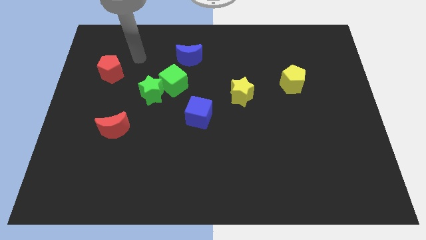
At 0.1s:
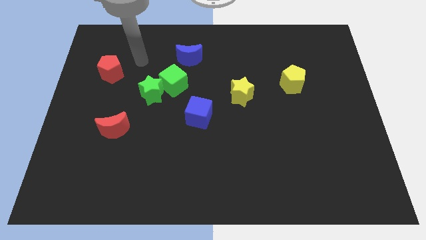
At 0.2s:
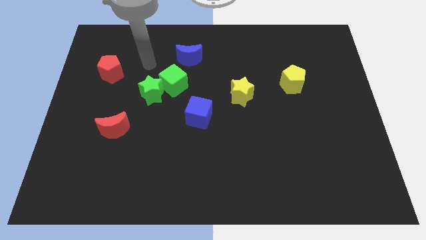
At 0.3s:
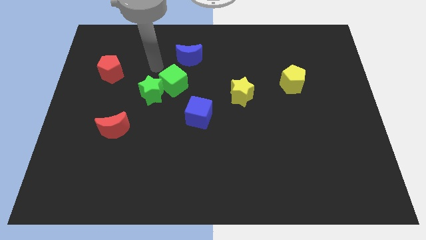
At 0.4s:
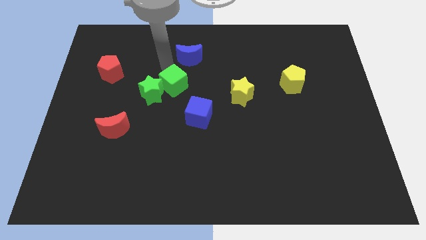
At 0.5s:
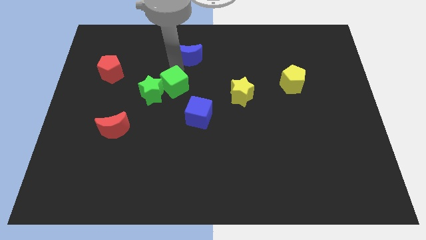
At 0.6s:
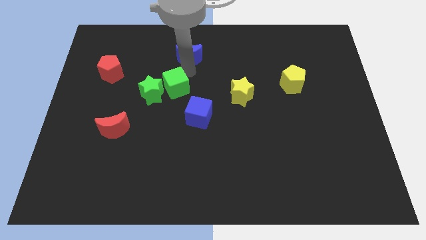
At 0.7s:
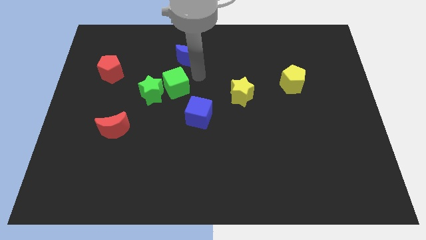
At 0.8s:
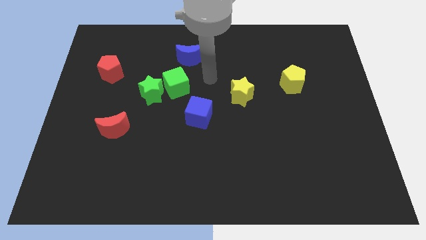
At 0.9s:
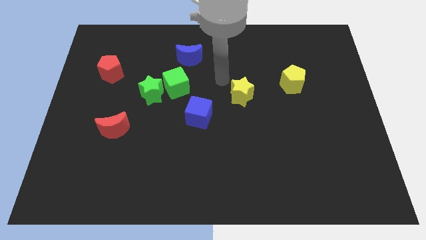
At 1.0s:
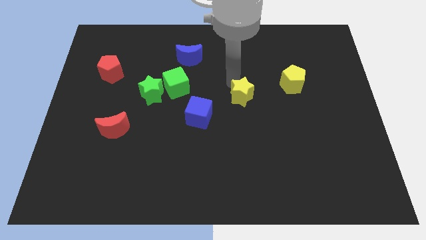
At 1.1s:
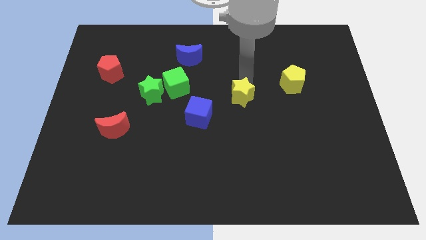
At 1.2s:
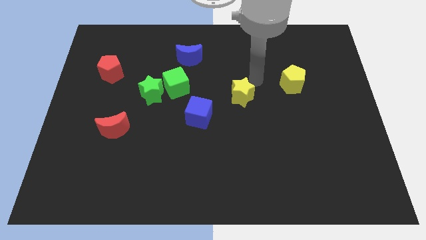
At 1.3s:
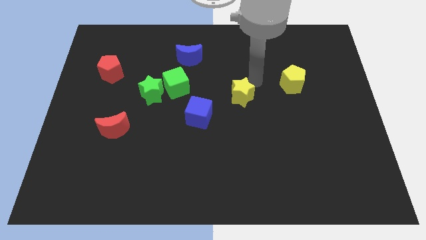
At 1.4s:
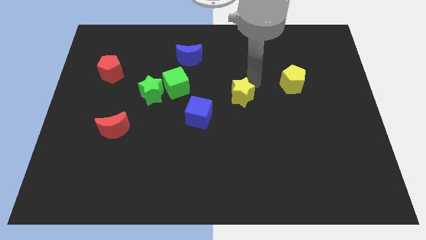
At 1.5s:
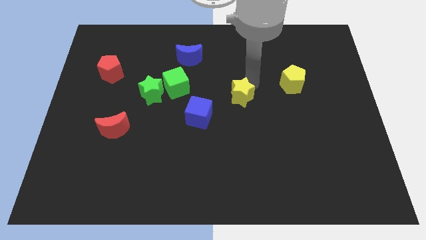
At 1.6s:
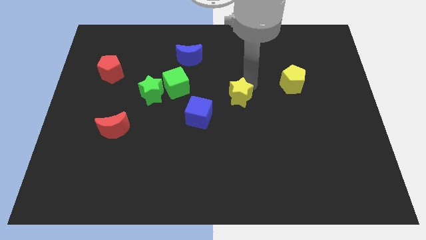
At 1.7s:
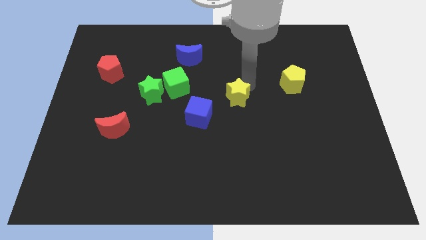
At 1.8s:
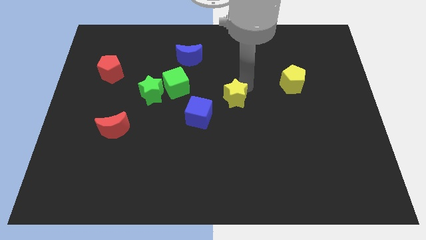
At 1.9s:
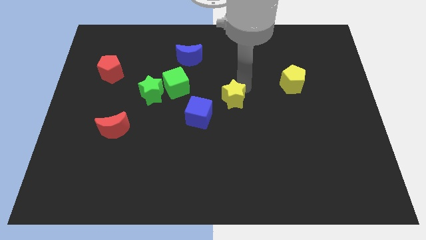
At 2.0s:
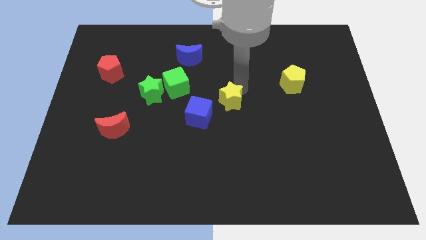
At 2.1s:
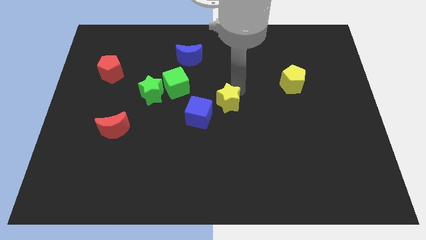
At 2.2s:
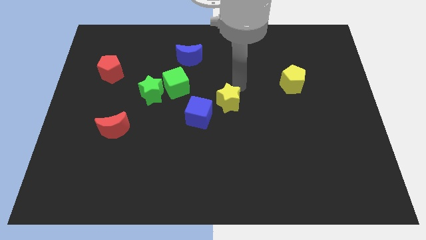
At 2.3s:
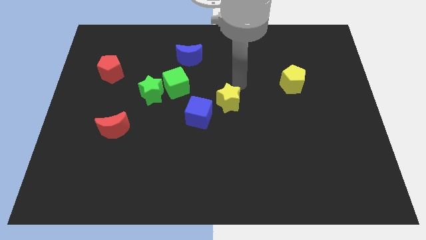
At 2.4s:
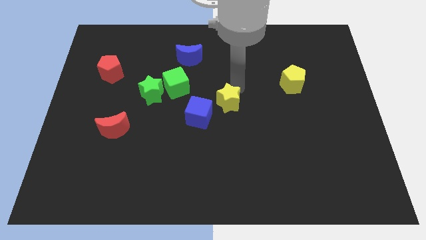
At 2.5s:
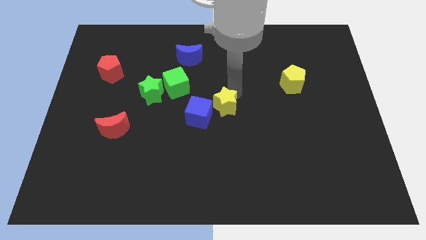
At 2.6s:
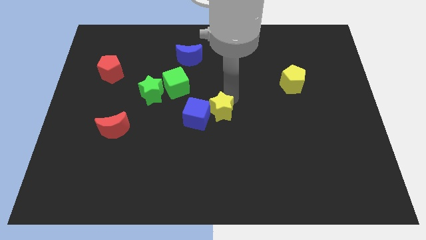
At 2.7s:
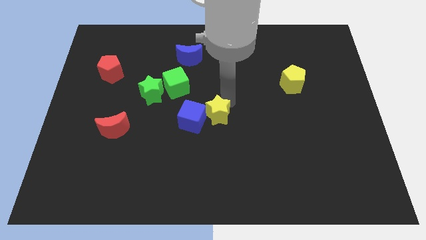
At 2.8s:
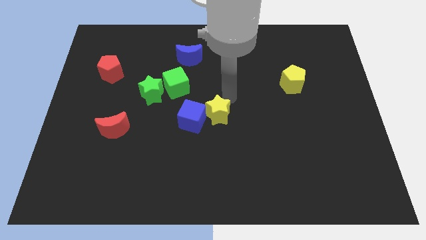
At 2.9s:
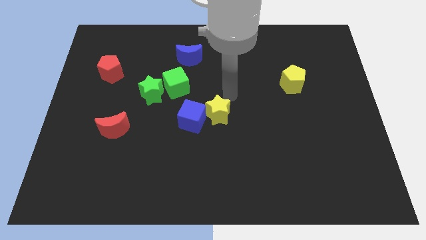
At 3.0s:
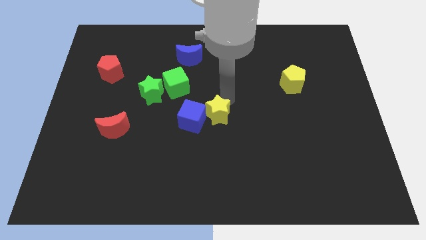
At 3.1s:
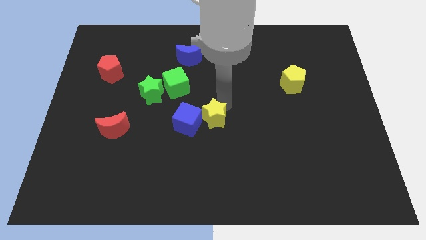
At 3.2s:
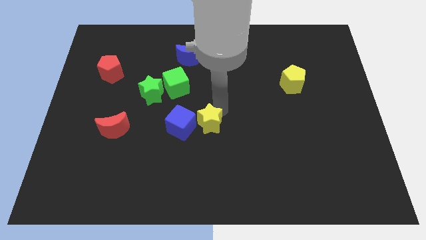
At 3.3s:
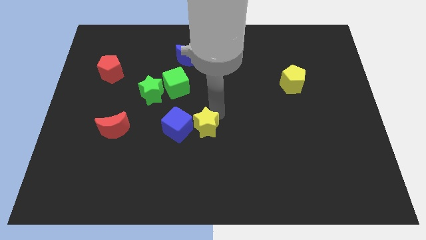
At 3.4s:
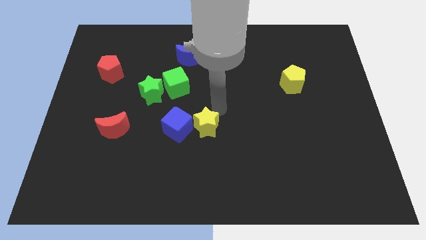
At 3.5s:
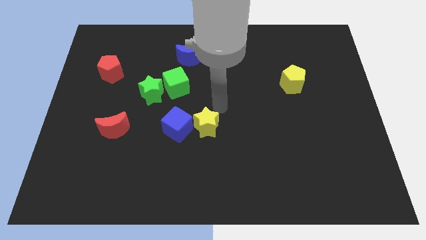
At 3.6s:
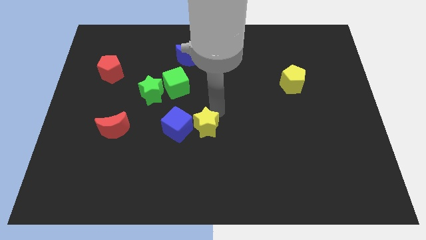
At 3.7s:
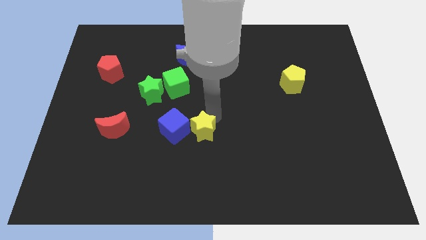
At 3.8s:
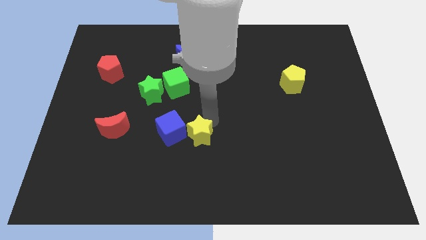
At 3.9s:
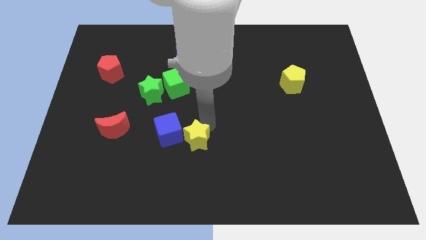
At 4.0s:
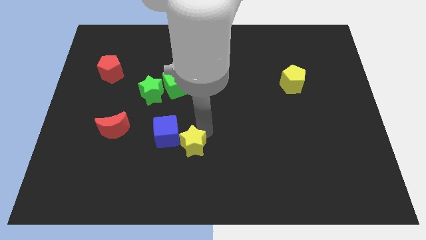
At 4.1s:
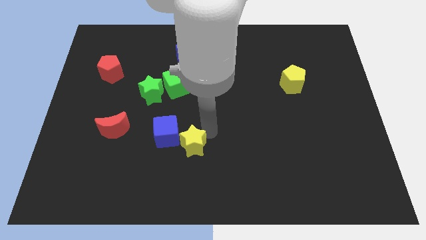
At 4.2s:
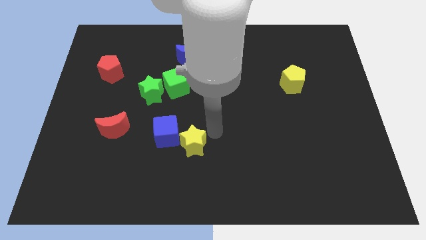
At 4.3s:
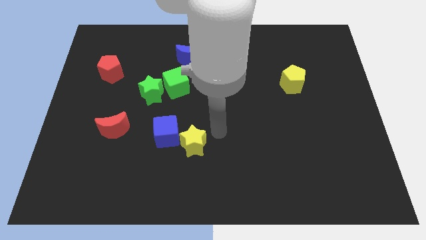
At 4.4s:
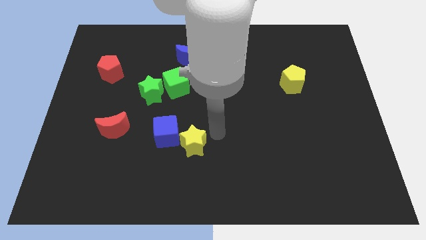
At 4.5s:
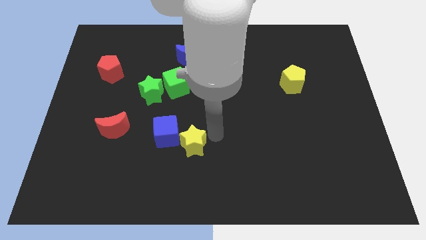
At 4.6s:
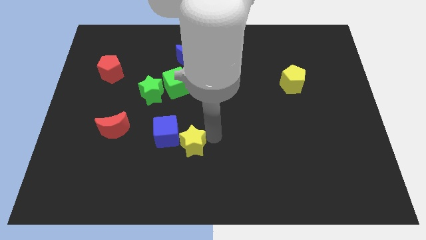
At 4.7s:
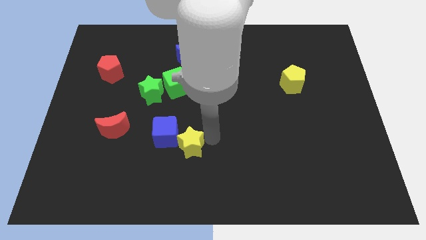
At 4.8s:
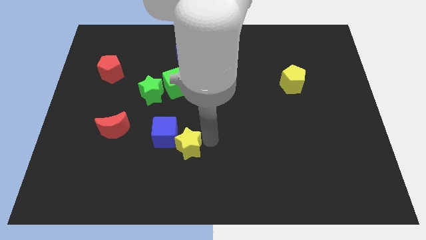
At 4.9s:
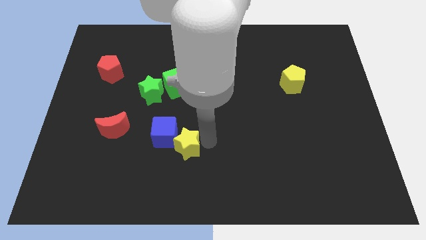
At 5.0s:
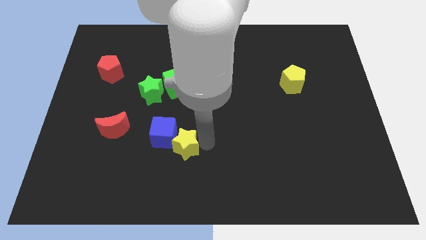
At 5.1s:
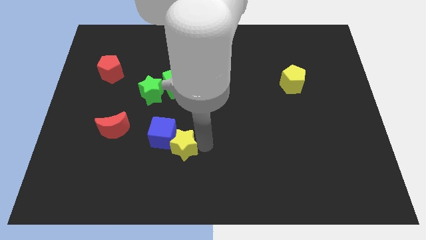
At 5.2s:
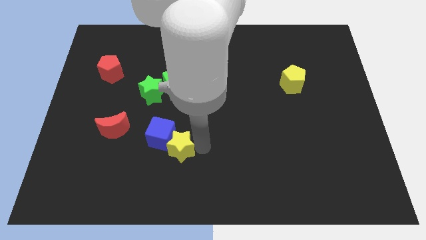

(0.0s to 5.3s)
push the yellow star down and then to the left

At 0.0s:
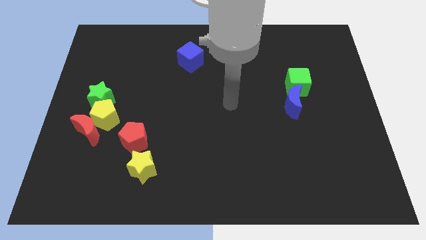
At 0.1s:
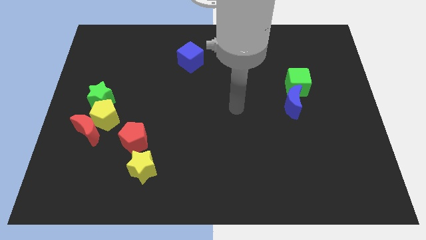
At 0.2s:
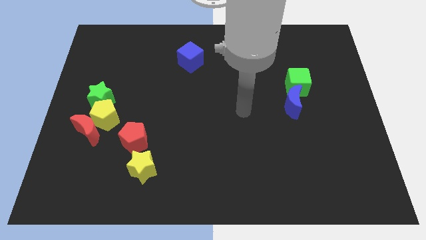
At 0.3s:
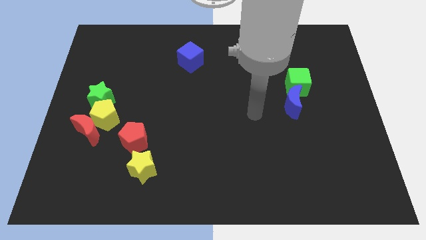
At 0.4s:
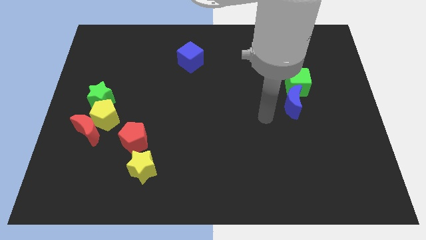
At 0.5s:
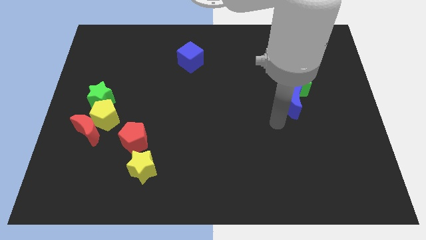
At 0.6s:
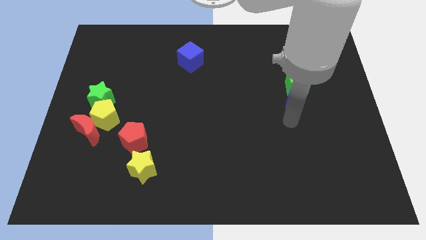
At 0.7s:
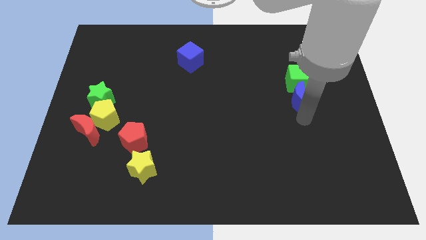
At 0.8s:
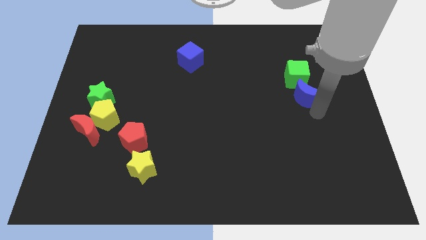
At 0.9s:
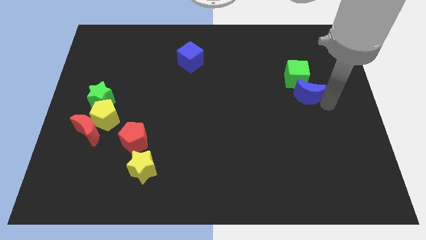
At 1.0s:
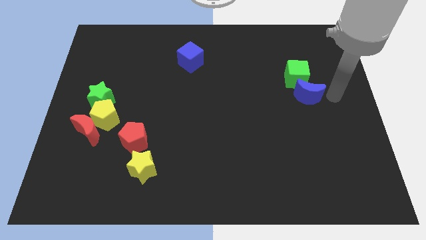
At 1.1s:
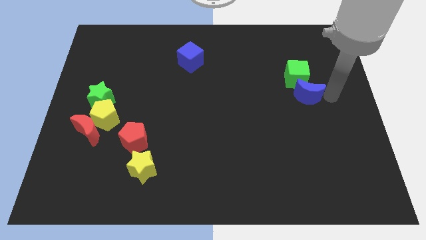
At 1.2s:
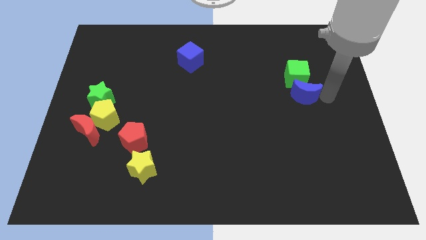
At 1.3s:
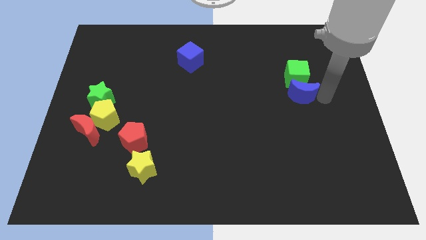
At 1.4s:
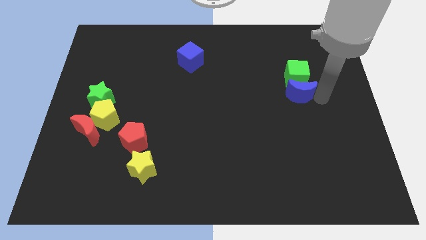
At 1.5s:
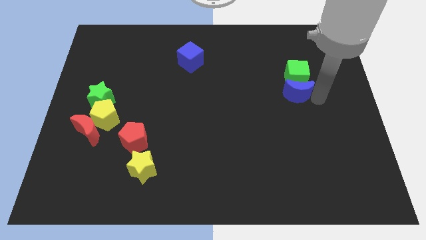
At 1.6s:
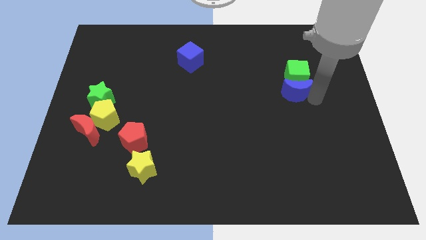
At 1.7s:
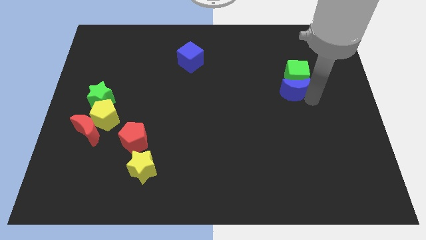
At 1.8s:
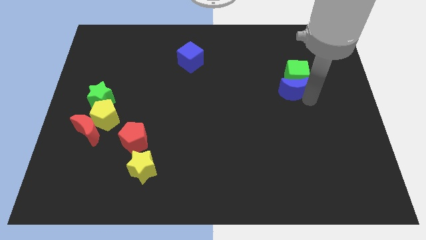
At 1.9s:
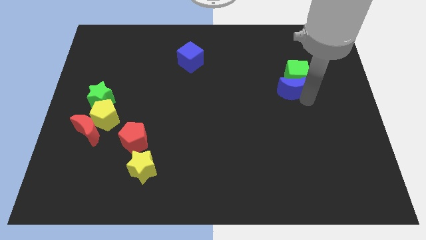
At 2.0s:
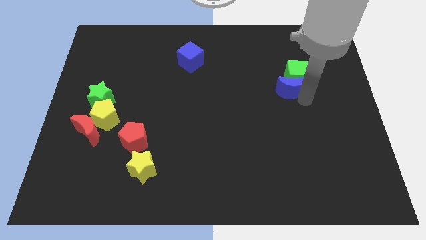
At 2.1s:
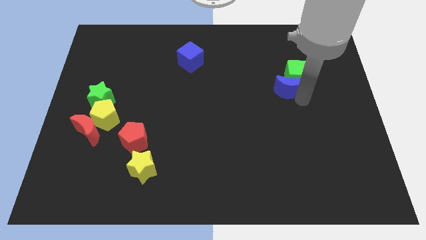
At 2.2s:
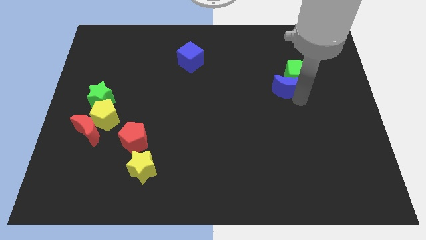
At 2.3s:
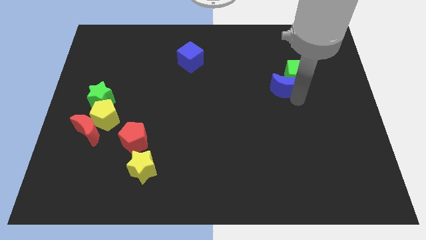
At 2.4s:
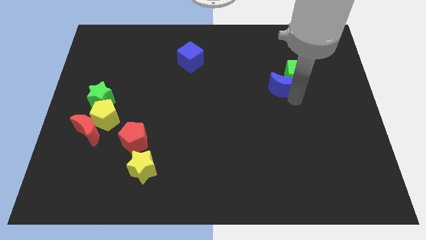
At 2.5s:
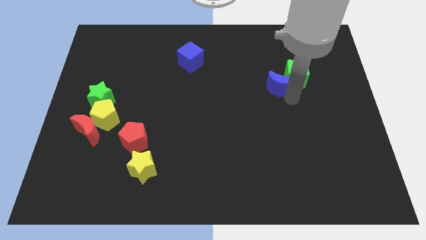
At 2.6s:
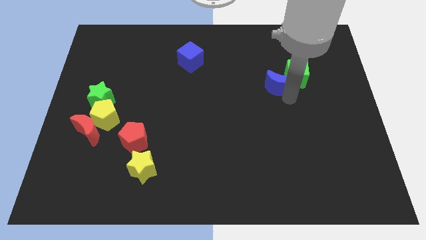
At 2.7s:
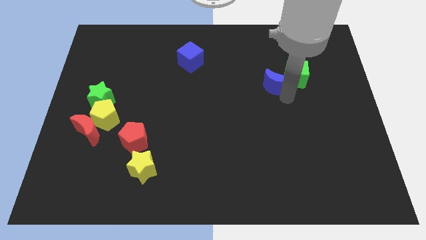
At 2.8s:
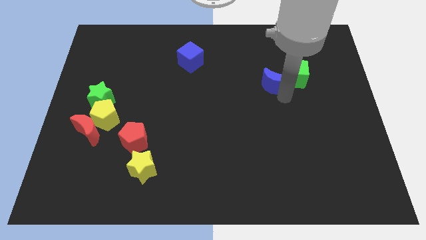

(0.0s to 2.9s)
move the blue moon a little bit diagonally up and to the left

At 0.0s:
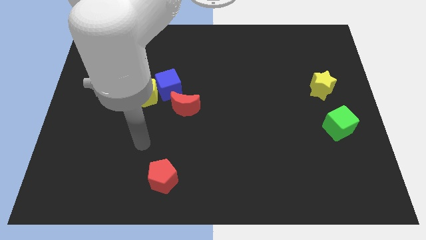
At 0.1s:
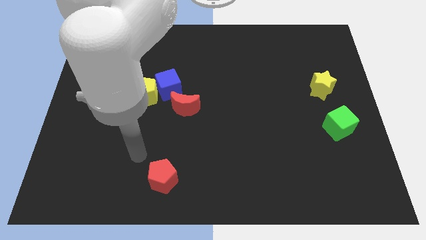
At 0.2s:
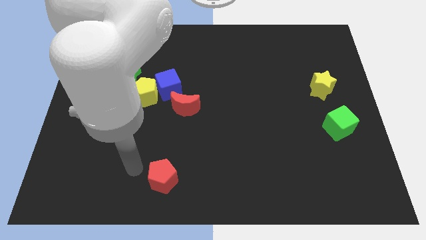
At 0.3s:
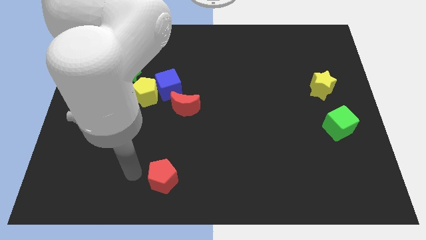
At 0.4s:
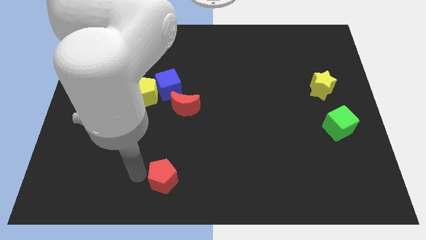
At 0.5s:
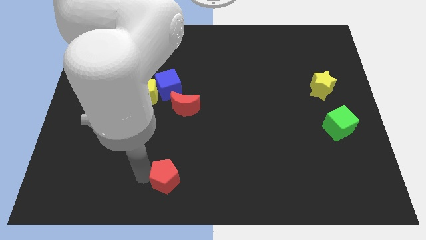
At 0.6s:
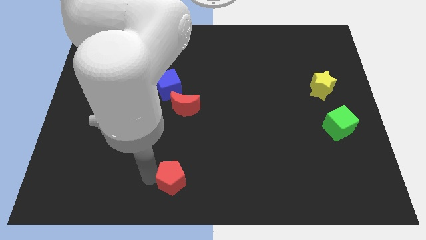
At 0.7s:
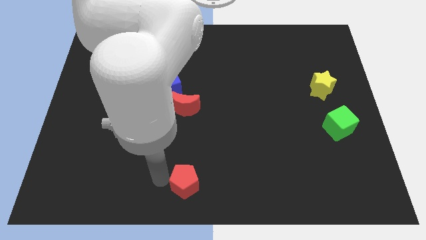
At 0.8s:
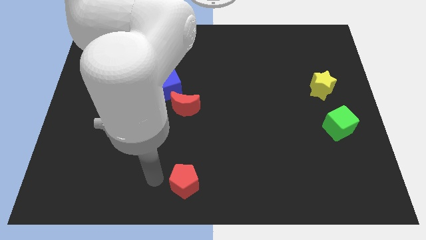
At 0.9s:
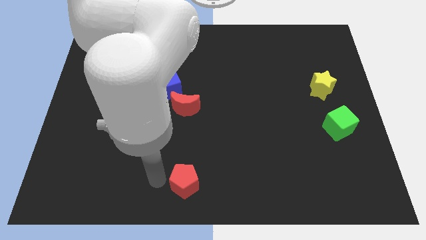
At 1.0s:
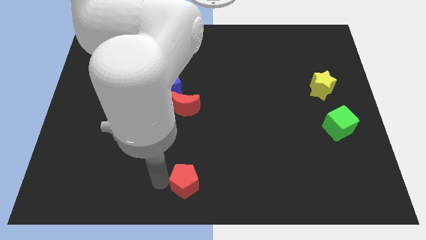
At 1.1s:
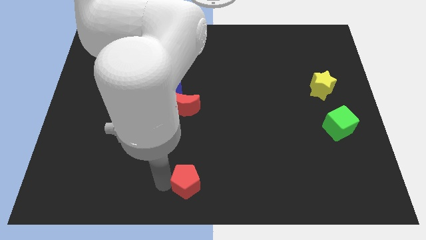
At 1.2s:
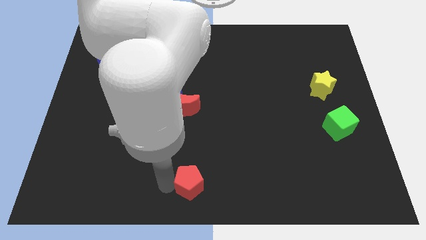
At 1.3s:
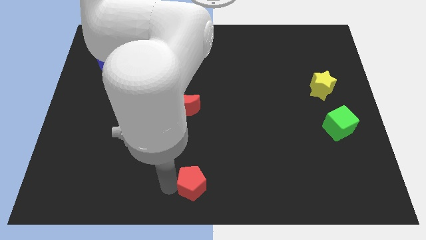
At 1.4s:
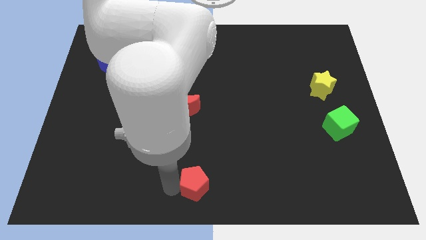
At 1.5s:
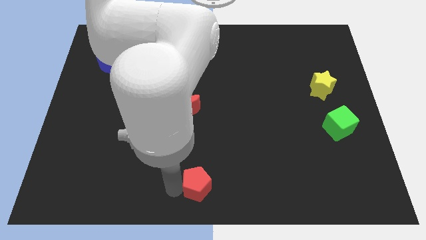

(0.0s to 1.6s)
move the red pentagon right slightly
